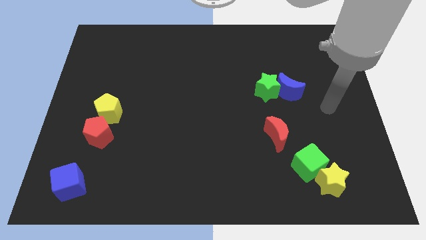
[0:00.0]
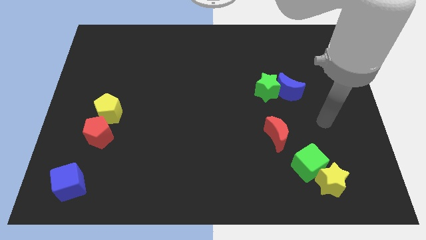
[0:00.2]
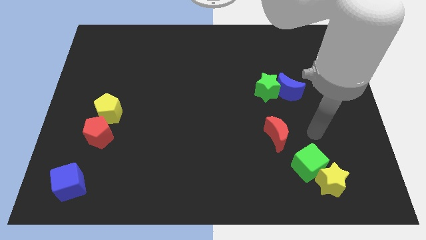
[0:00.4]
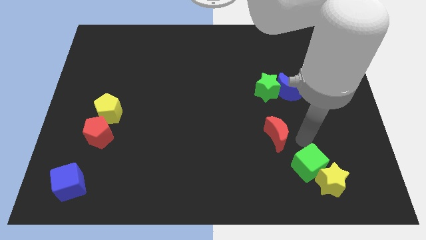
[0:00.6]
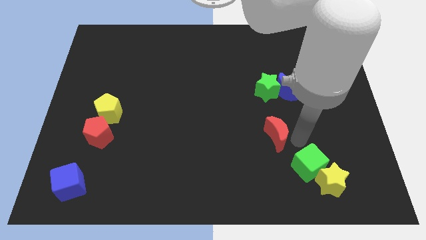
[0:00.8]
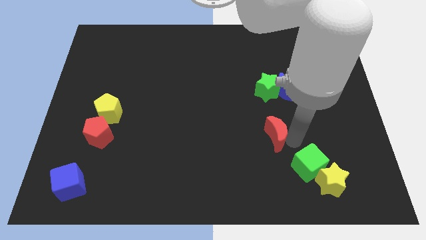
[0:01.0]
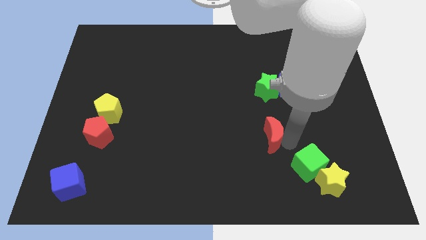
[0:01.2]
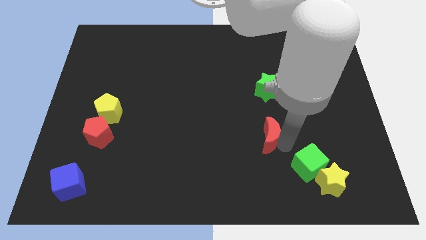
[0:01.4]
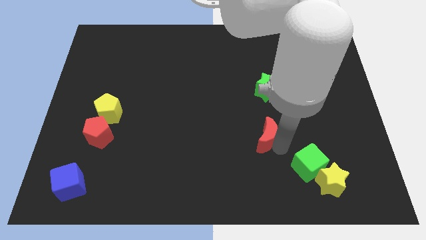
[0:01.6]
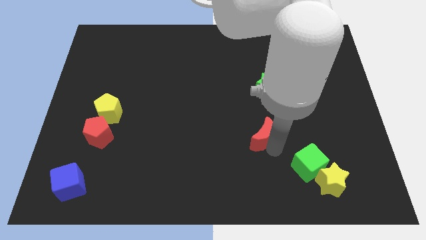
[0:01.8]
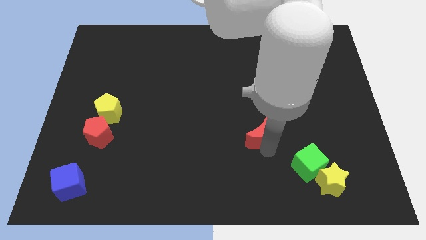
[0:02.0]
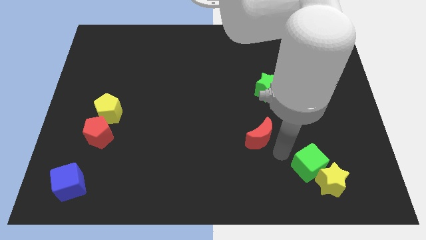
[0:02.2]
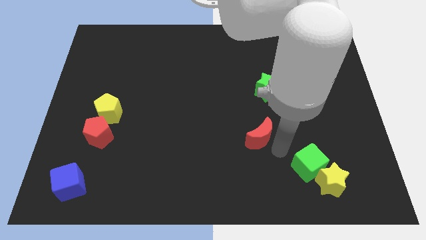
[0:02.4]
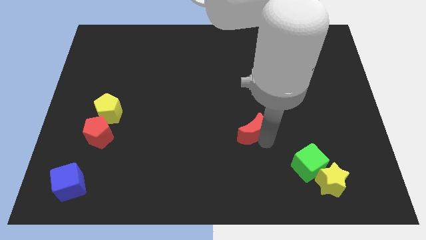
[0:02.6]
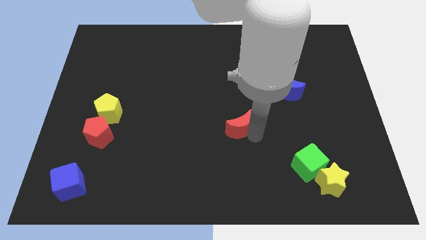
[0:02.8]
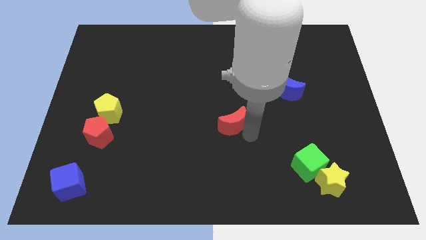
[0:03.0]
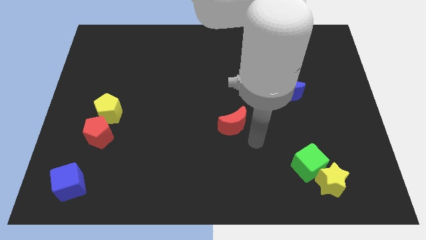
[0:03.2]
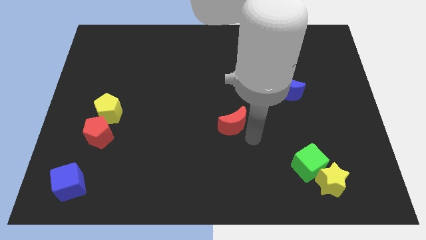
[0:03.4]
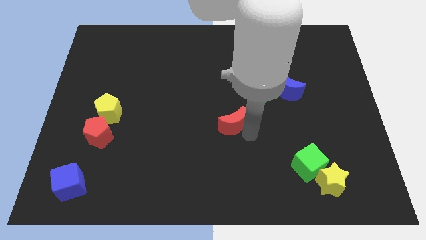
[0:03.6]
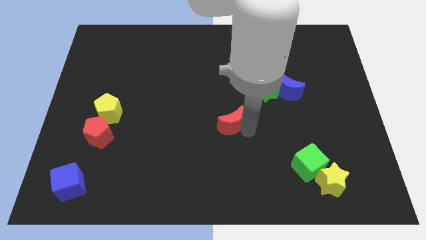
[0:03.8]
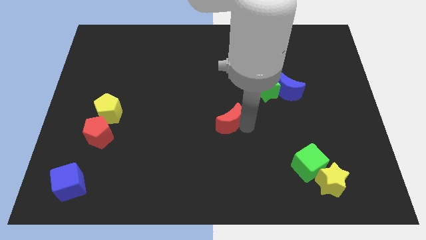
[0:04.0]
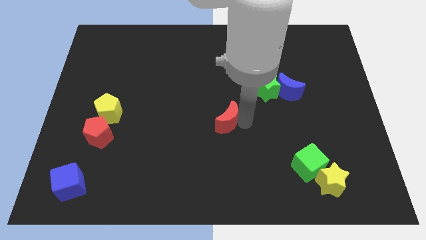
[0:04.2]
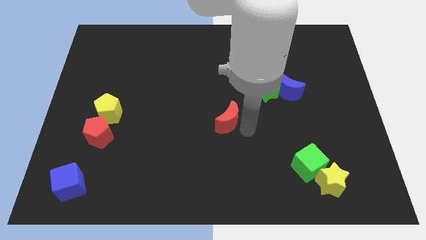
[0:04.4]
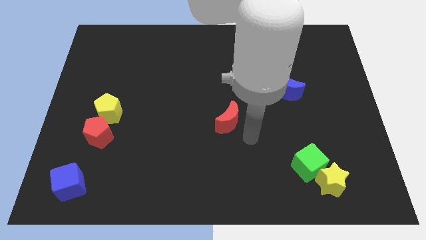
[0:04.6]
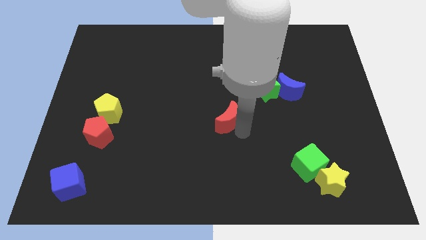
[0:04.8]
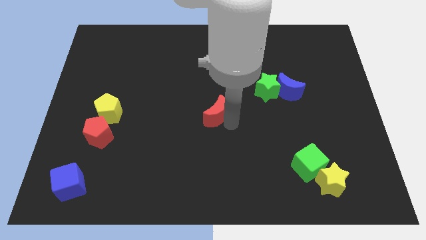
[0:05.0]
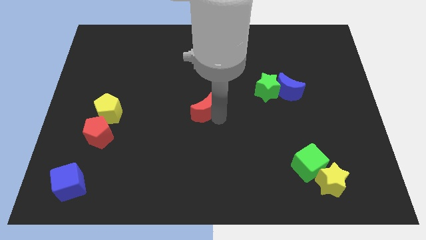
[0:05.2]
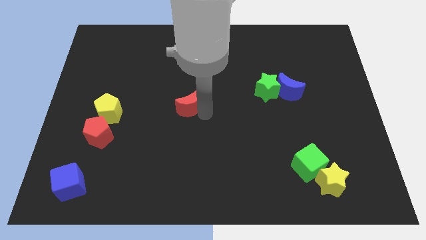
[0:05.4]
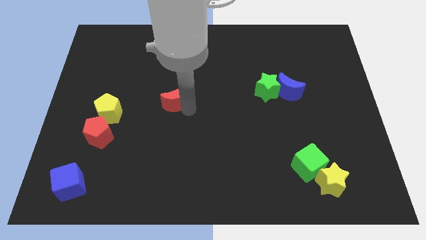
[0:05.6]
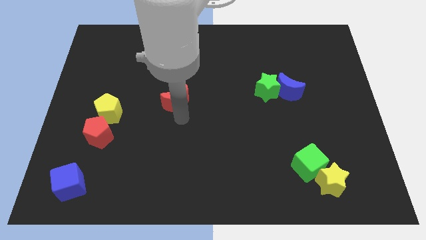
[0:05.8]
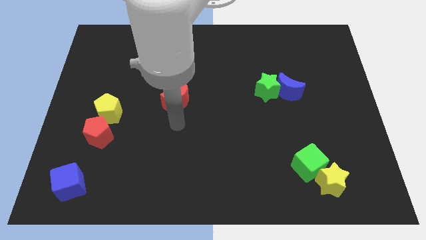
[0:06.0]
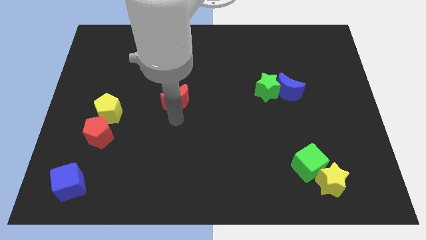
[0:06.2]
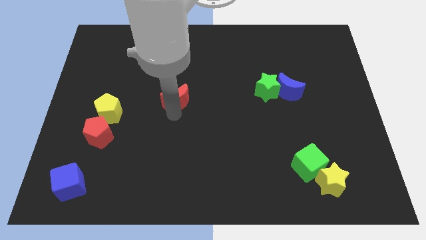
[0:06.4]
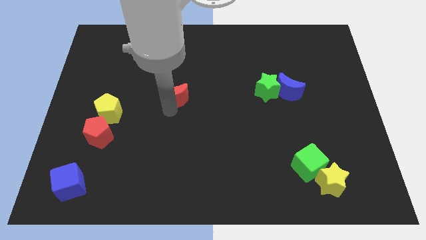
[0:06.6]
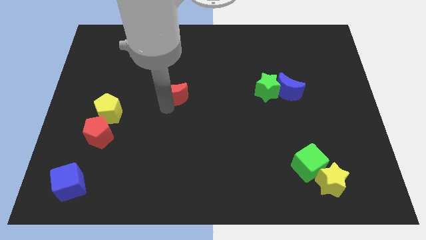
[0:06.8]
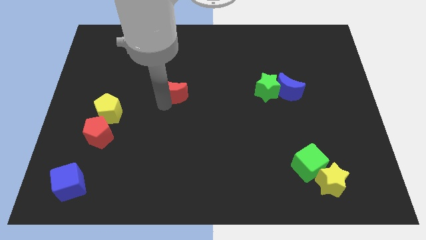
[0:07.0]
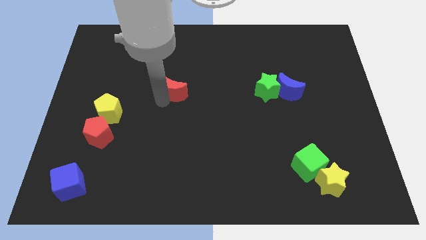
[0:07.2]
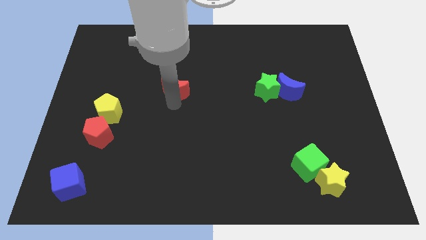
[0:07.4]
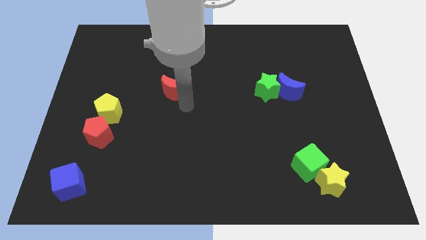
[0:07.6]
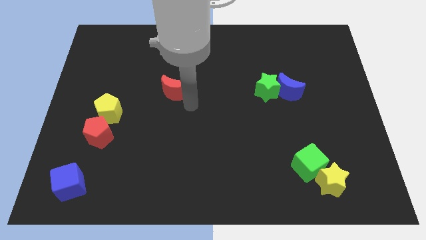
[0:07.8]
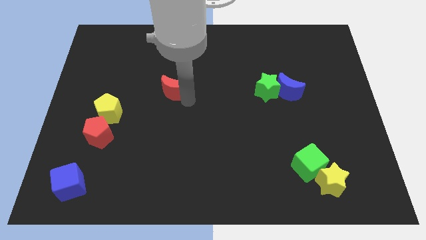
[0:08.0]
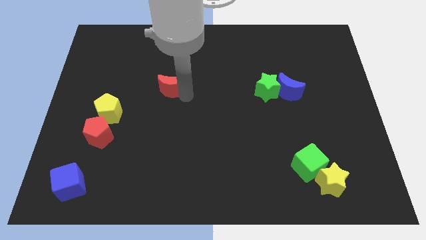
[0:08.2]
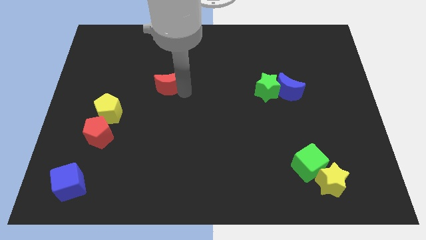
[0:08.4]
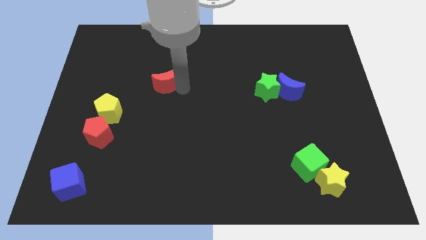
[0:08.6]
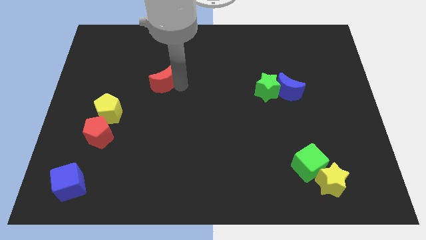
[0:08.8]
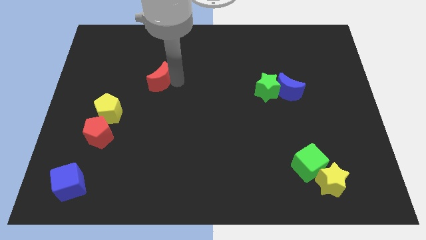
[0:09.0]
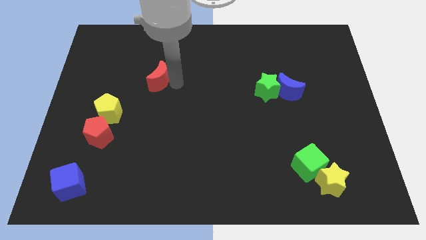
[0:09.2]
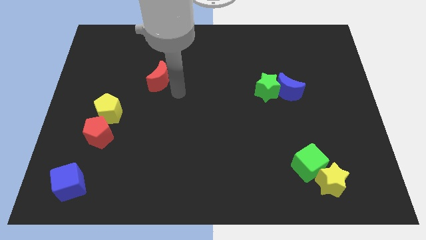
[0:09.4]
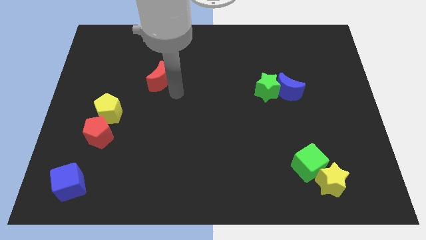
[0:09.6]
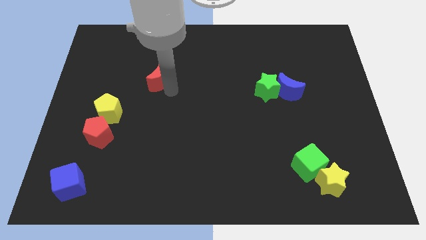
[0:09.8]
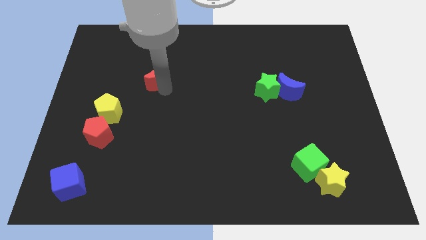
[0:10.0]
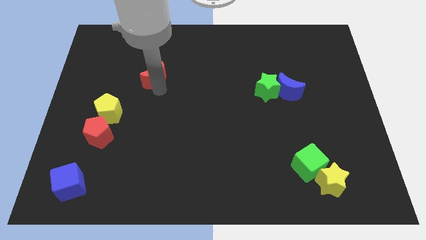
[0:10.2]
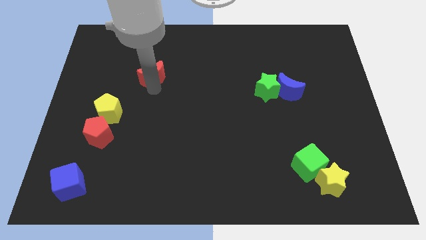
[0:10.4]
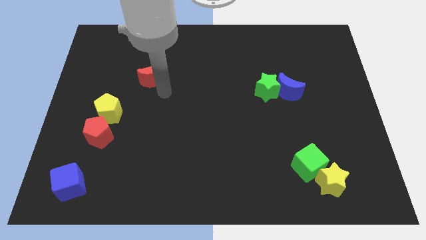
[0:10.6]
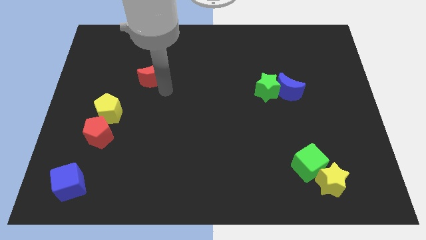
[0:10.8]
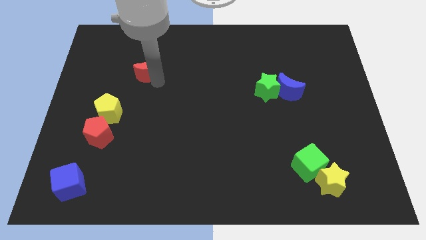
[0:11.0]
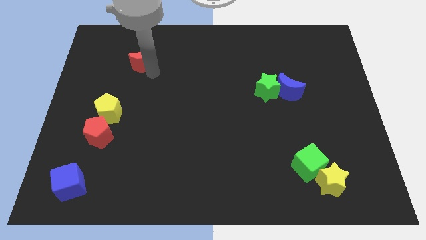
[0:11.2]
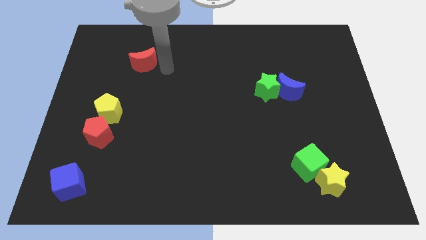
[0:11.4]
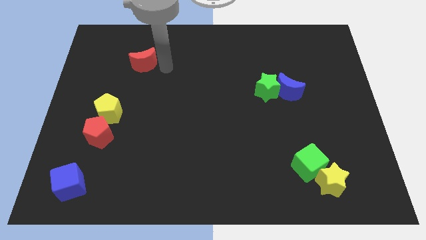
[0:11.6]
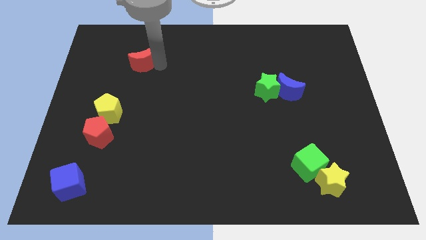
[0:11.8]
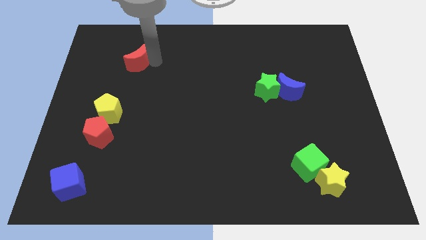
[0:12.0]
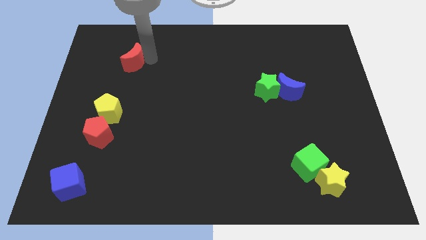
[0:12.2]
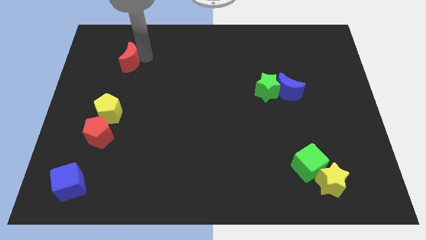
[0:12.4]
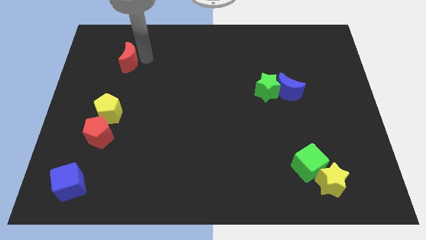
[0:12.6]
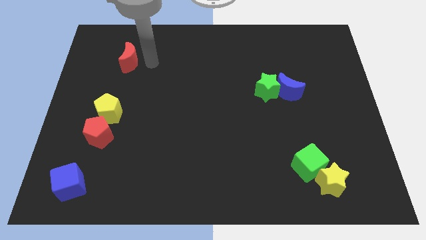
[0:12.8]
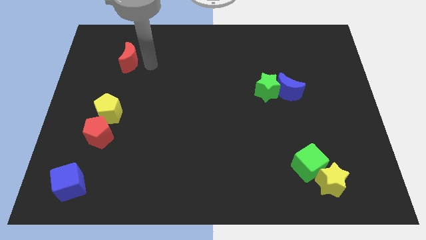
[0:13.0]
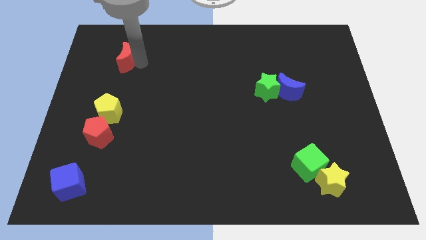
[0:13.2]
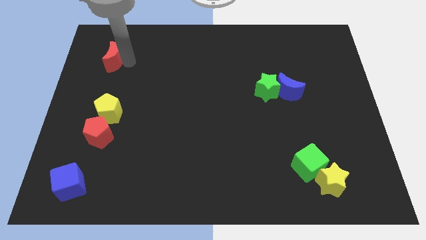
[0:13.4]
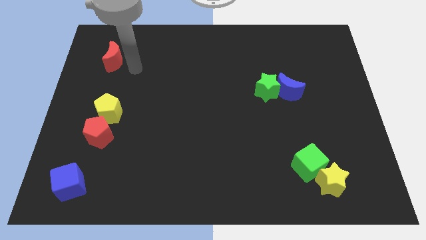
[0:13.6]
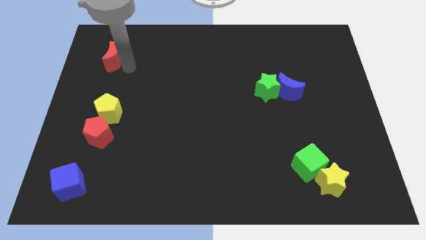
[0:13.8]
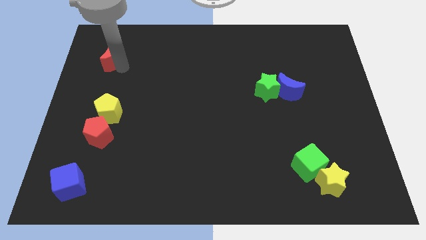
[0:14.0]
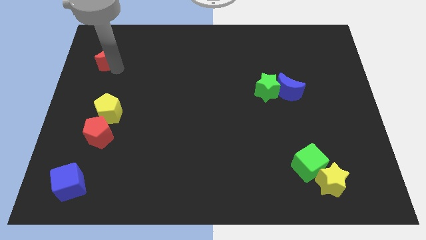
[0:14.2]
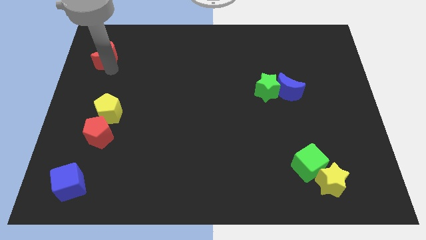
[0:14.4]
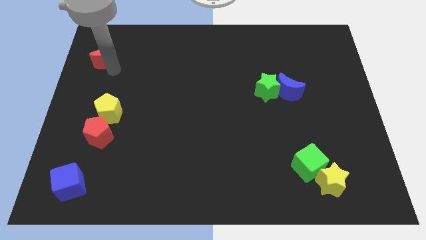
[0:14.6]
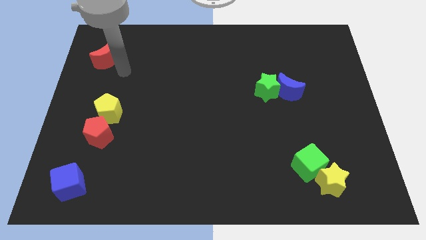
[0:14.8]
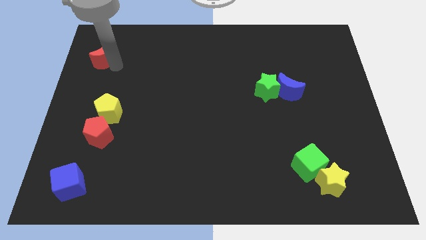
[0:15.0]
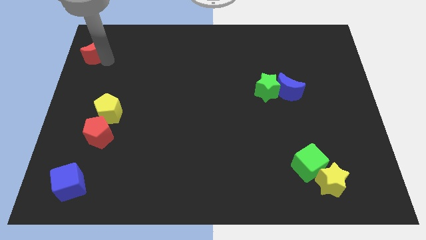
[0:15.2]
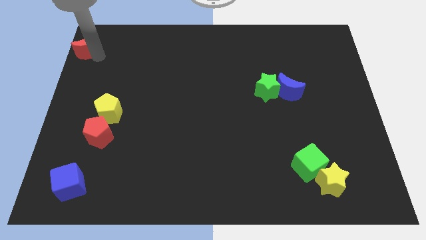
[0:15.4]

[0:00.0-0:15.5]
slide the red moon to the top left of the board
